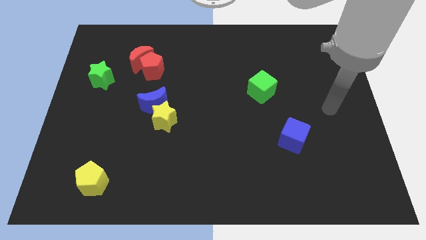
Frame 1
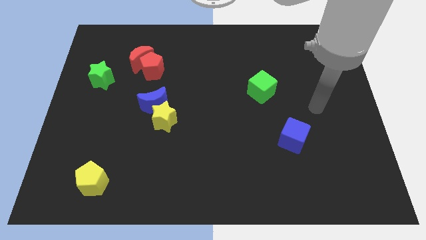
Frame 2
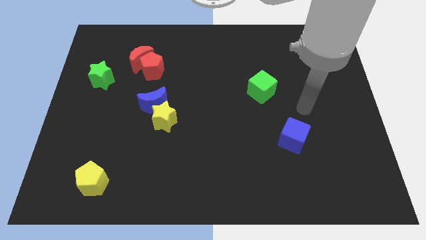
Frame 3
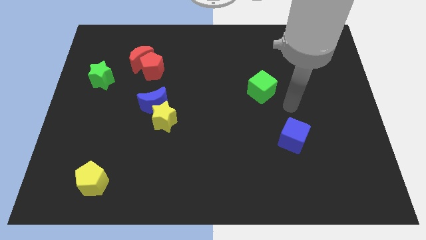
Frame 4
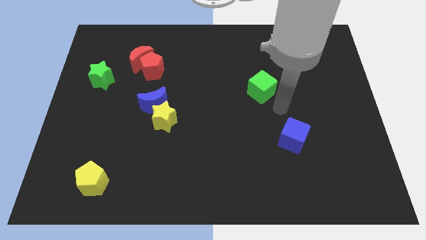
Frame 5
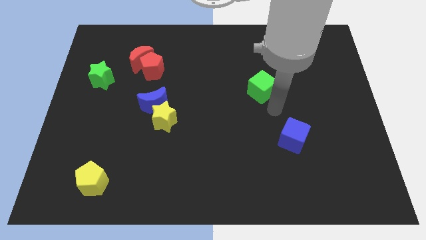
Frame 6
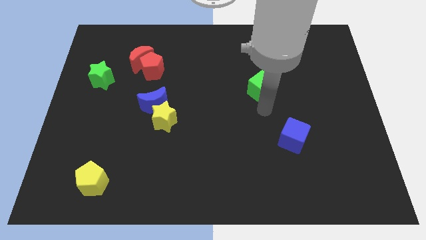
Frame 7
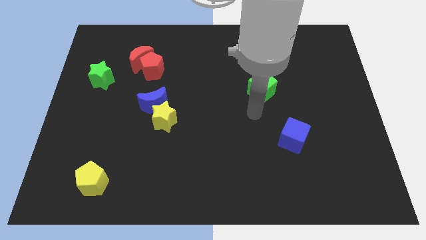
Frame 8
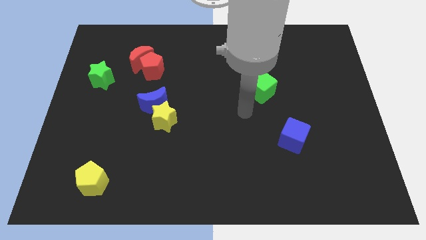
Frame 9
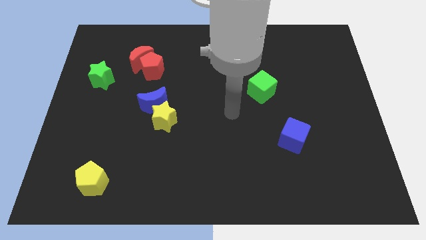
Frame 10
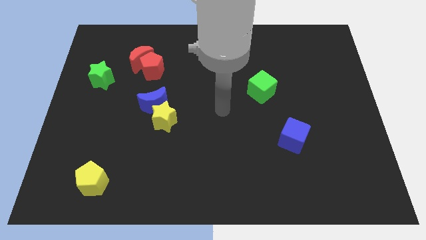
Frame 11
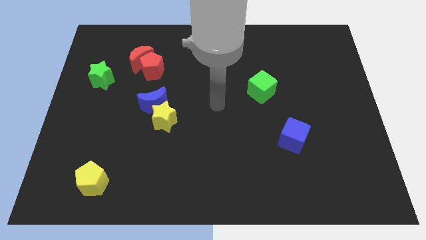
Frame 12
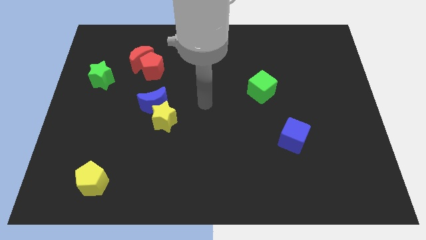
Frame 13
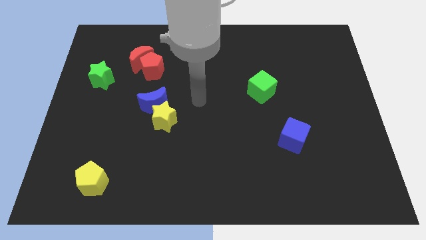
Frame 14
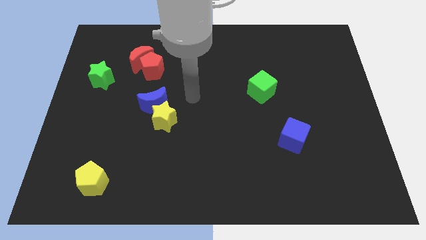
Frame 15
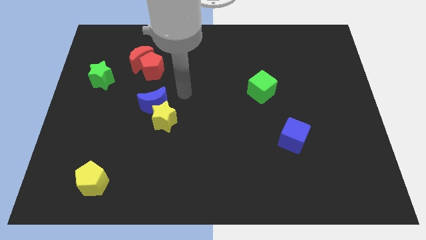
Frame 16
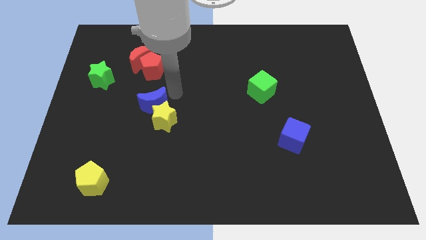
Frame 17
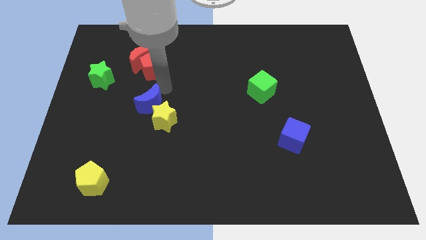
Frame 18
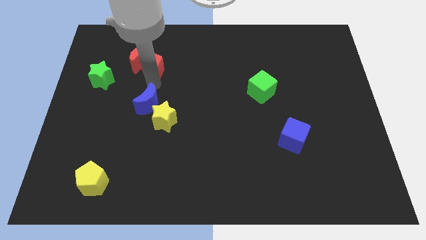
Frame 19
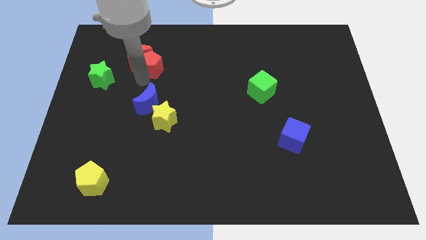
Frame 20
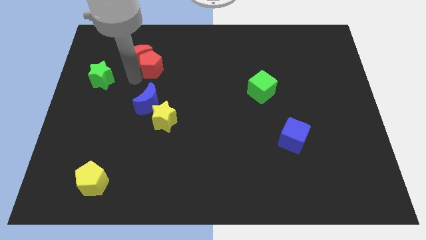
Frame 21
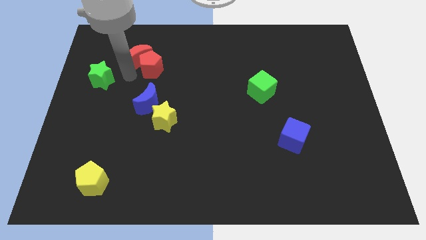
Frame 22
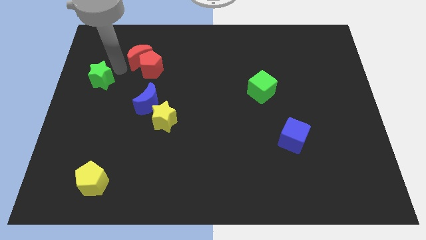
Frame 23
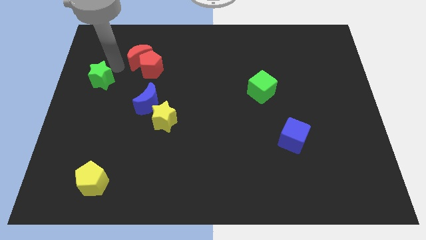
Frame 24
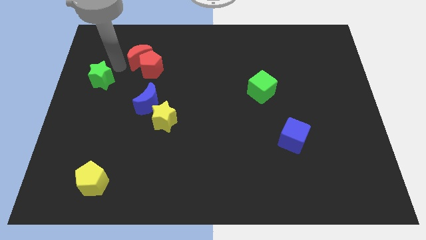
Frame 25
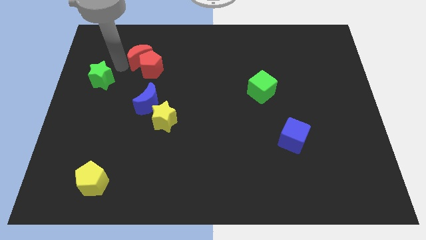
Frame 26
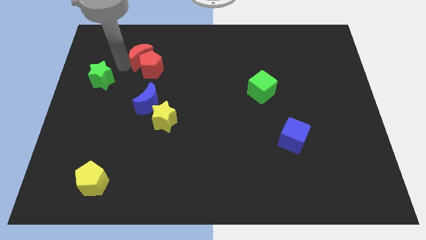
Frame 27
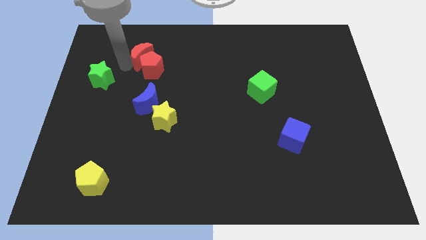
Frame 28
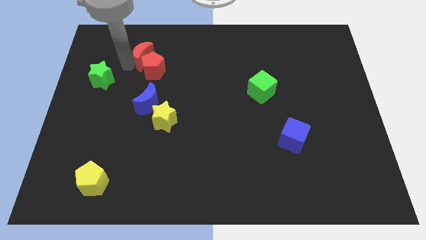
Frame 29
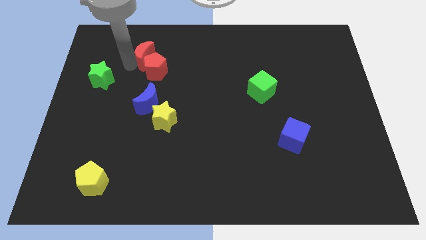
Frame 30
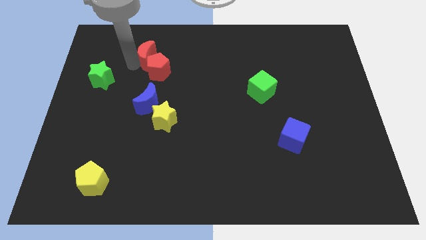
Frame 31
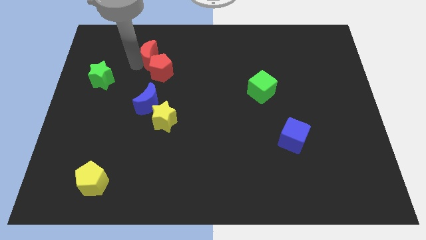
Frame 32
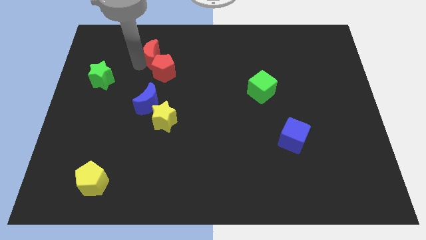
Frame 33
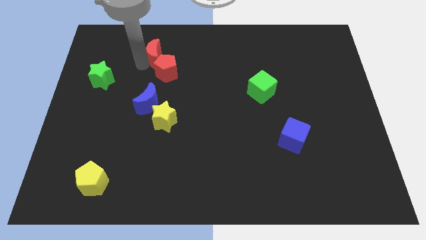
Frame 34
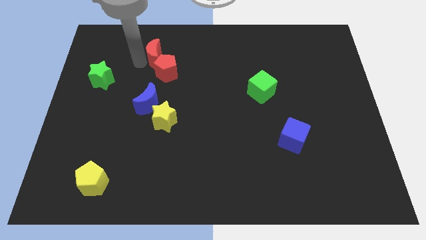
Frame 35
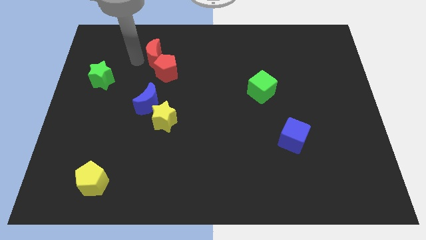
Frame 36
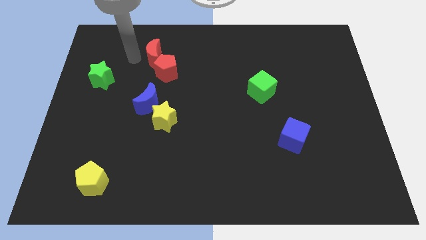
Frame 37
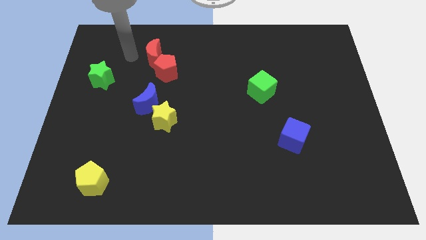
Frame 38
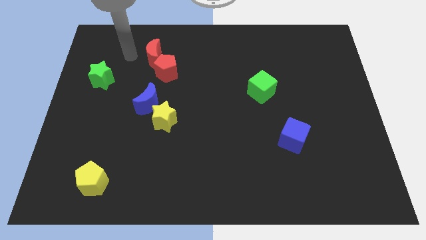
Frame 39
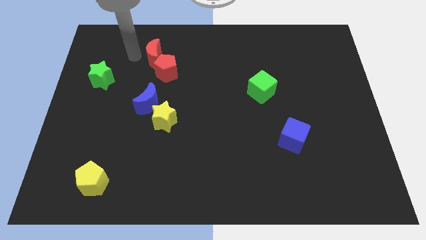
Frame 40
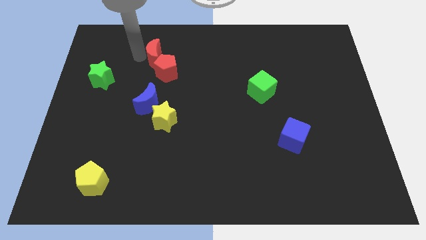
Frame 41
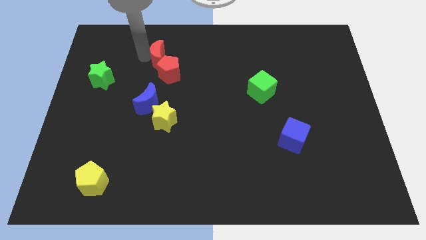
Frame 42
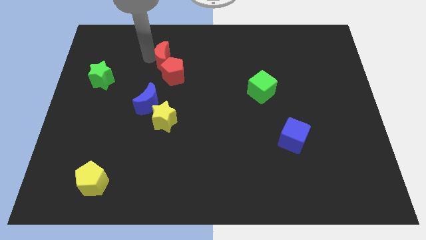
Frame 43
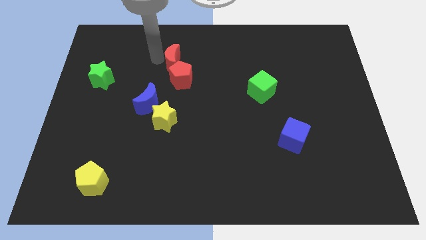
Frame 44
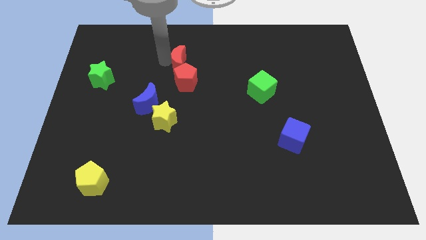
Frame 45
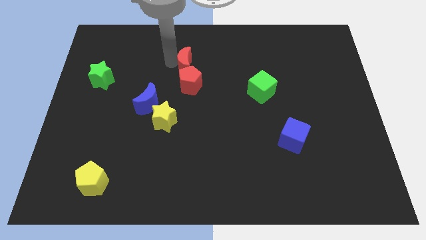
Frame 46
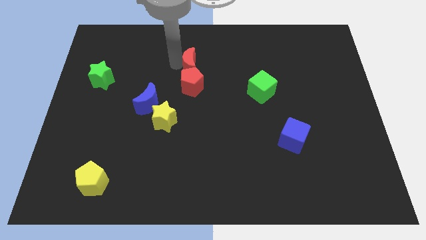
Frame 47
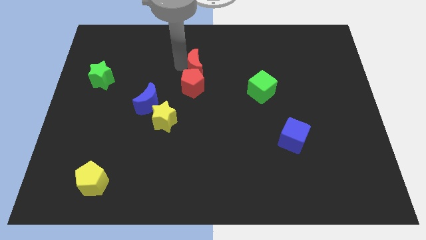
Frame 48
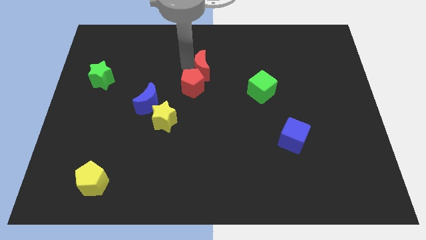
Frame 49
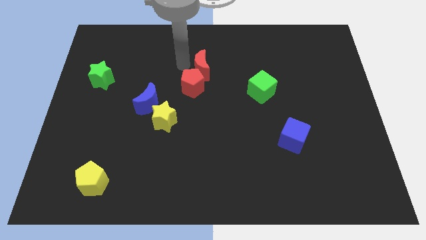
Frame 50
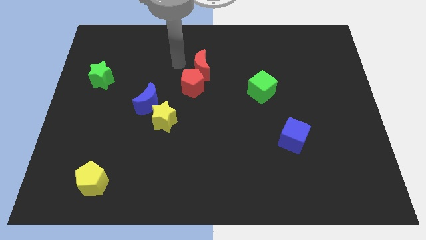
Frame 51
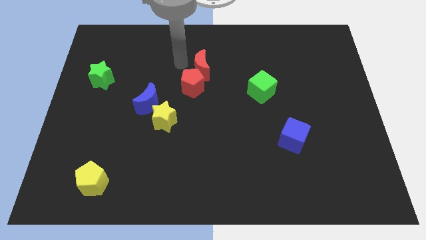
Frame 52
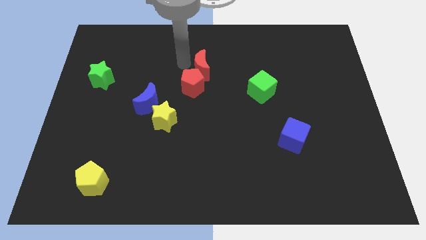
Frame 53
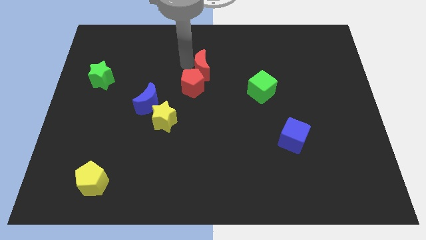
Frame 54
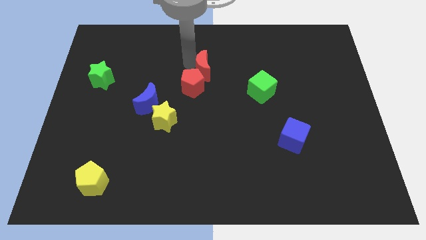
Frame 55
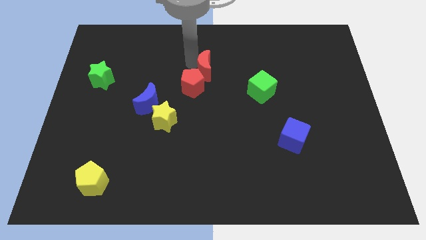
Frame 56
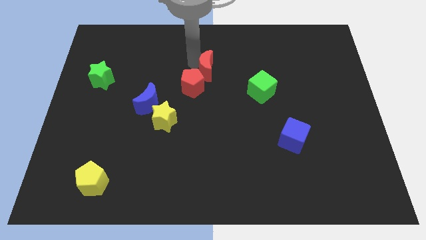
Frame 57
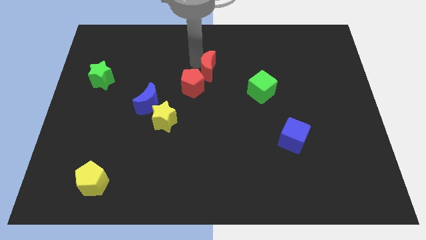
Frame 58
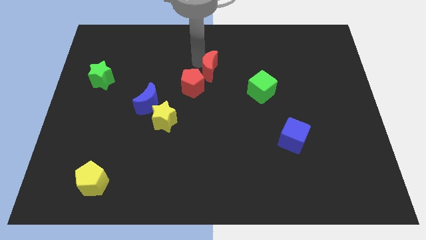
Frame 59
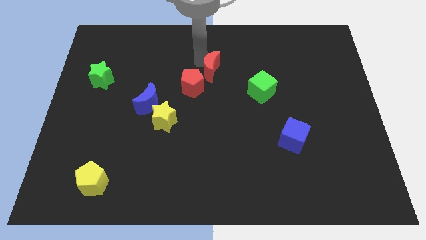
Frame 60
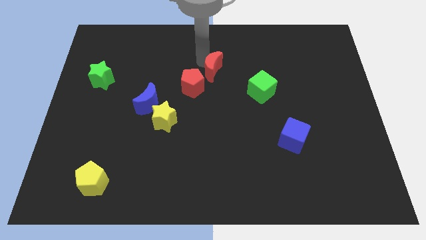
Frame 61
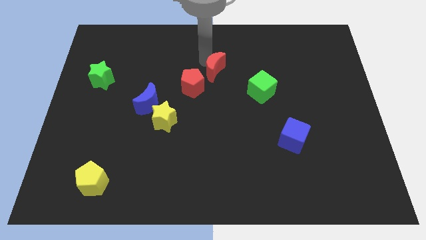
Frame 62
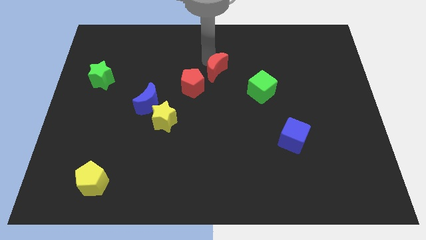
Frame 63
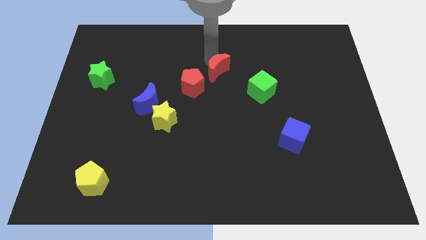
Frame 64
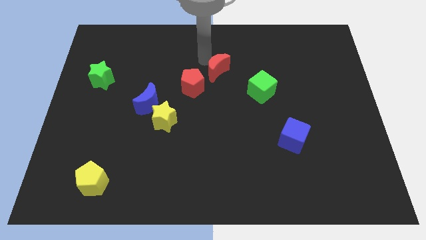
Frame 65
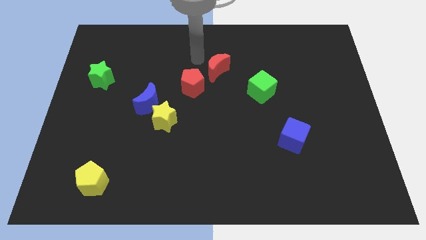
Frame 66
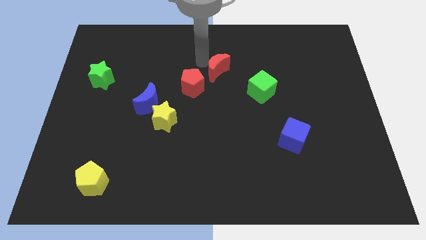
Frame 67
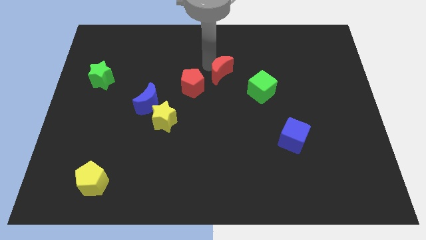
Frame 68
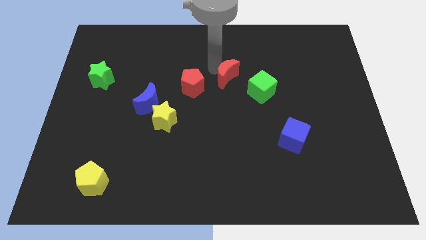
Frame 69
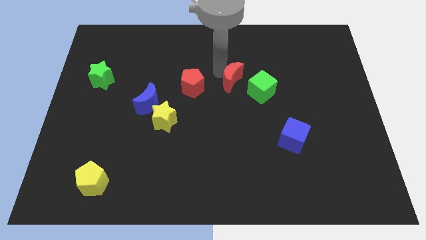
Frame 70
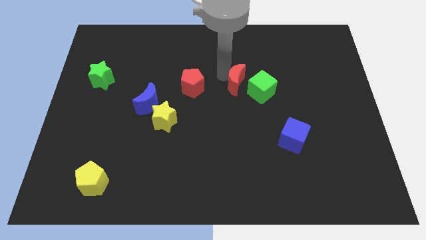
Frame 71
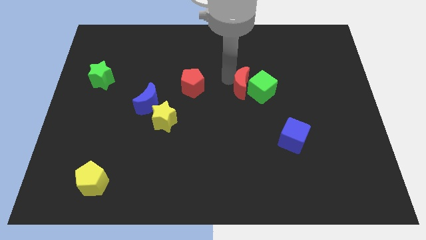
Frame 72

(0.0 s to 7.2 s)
push the red moon towards the green cube
